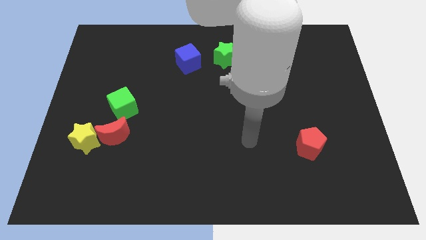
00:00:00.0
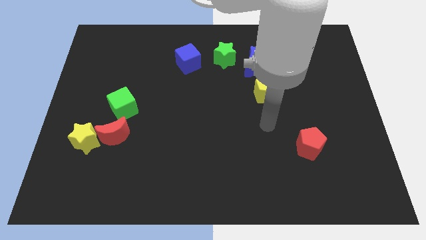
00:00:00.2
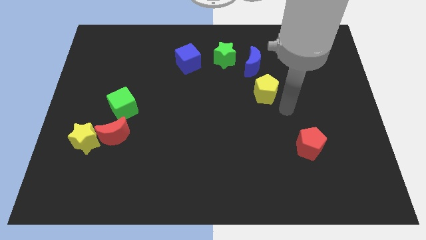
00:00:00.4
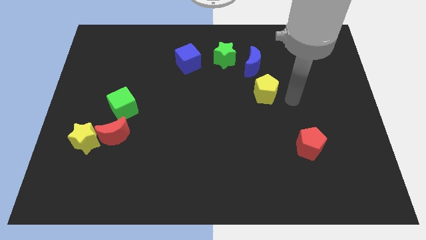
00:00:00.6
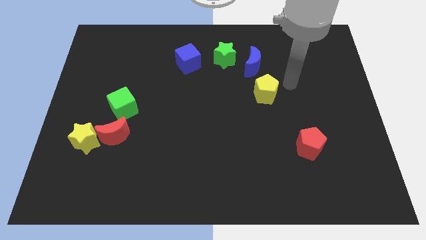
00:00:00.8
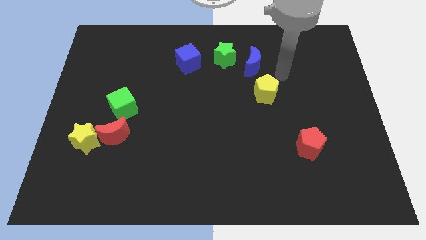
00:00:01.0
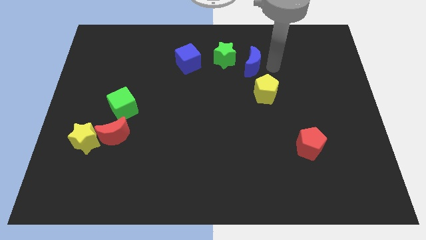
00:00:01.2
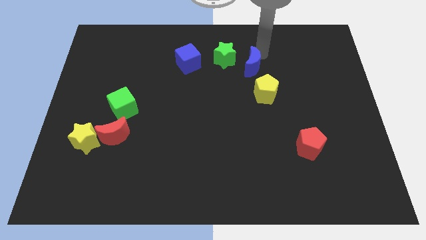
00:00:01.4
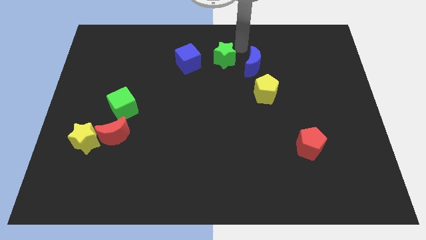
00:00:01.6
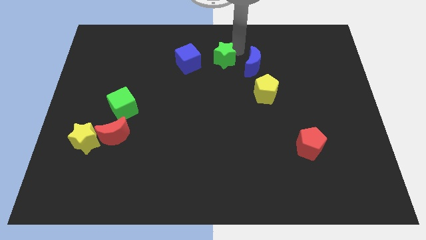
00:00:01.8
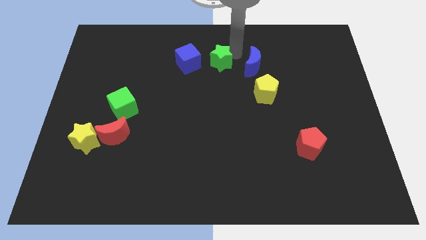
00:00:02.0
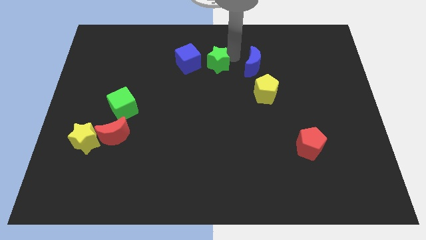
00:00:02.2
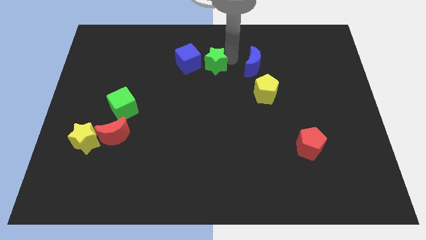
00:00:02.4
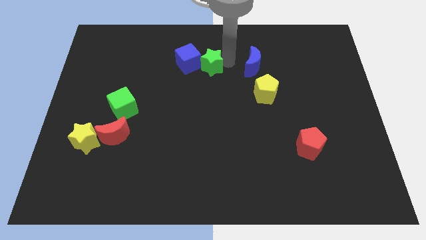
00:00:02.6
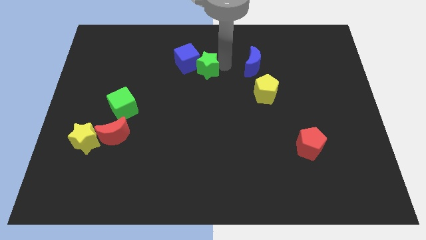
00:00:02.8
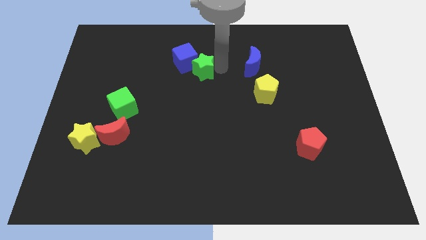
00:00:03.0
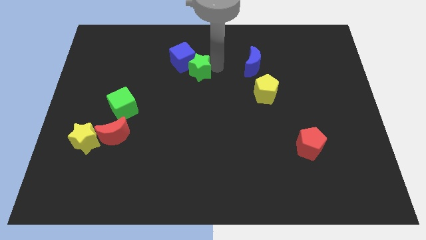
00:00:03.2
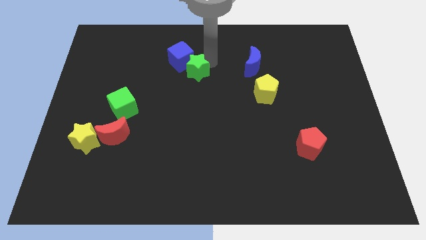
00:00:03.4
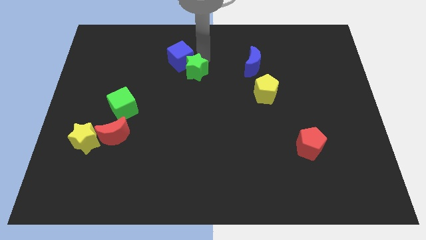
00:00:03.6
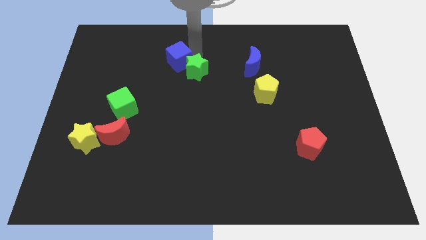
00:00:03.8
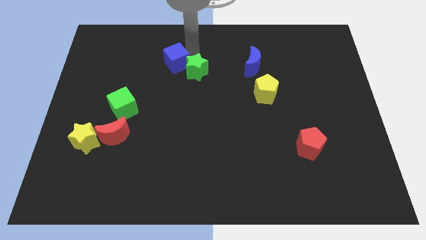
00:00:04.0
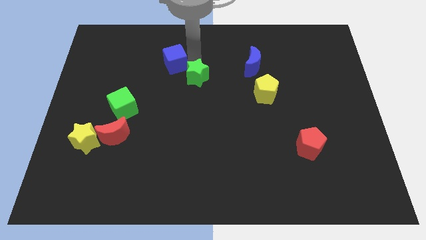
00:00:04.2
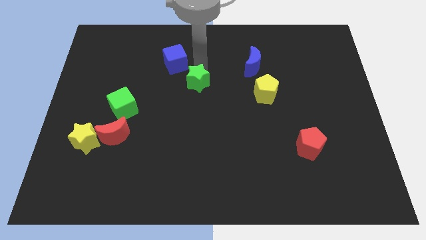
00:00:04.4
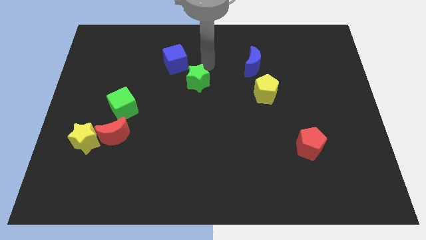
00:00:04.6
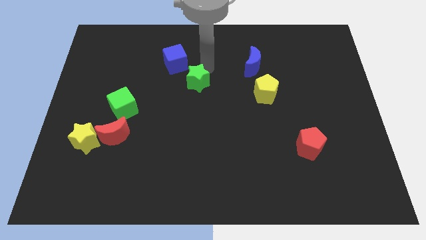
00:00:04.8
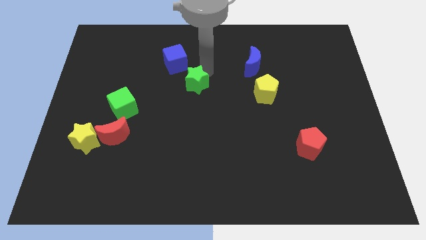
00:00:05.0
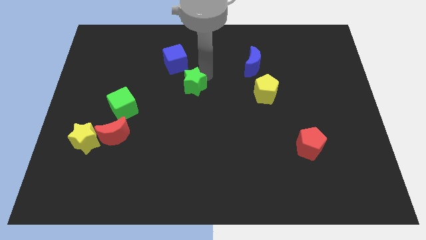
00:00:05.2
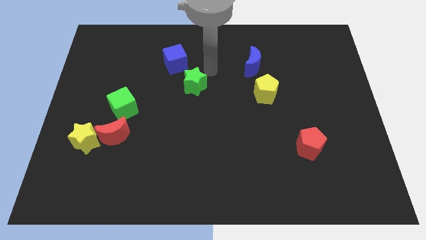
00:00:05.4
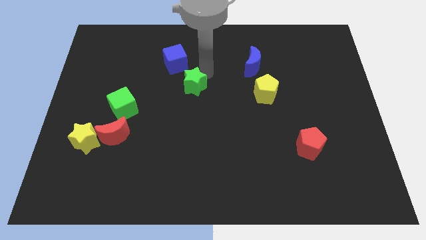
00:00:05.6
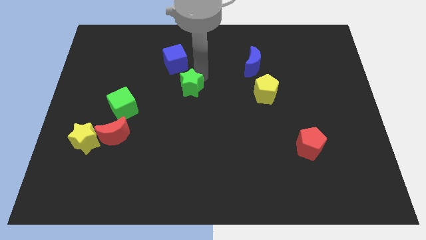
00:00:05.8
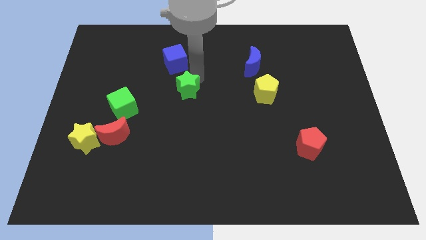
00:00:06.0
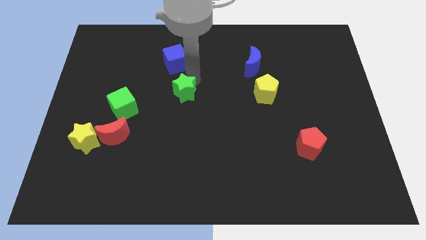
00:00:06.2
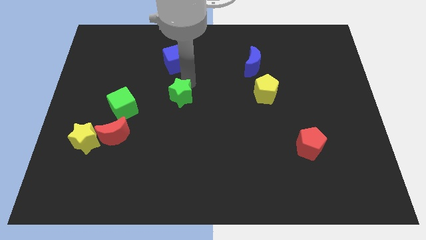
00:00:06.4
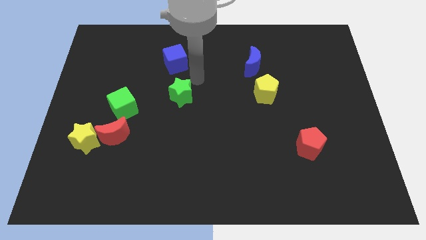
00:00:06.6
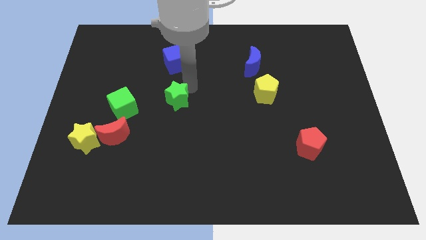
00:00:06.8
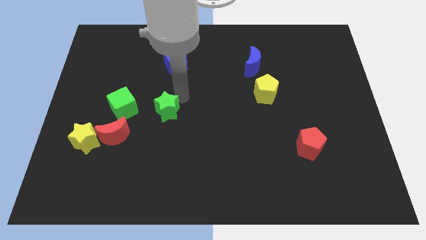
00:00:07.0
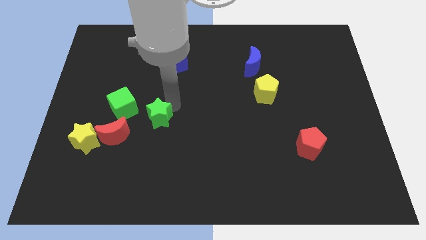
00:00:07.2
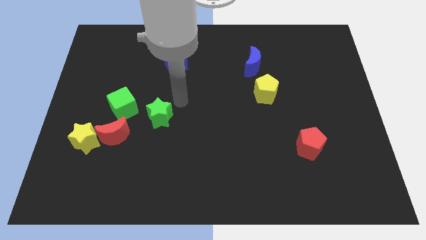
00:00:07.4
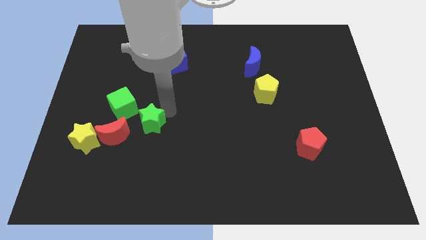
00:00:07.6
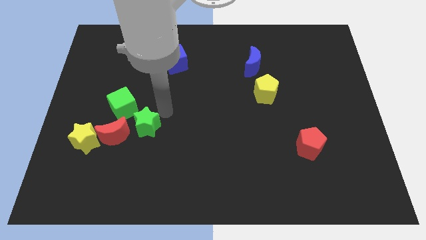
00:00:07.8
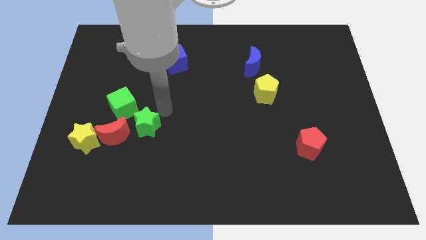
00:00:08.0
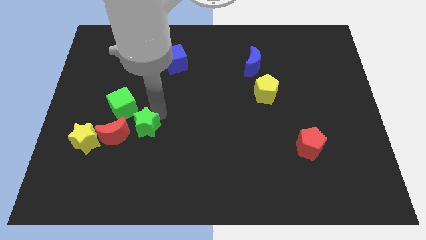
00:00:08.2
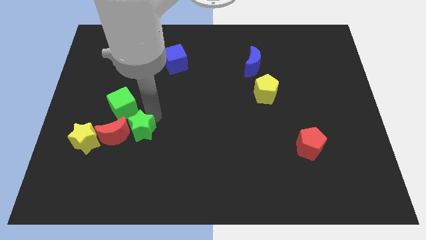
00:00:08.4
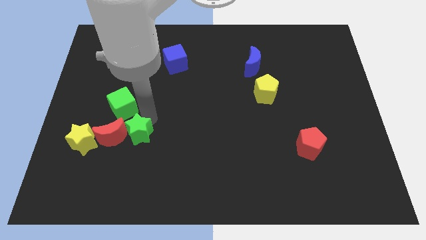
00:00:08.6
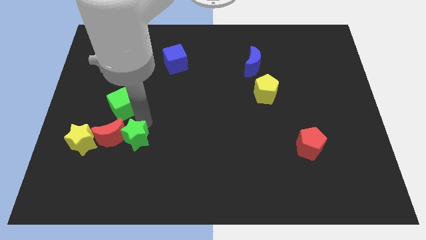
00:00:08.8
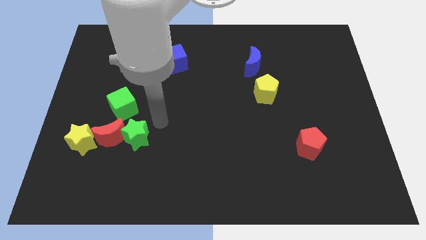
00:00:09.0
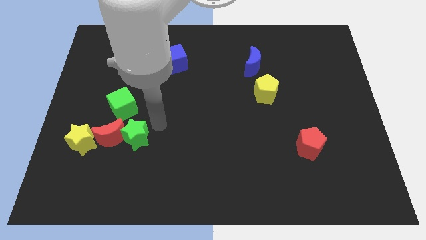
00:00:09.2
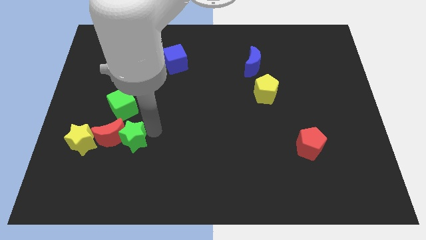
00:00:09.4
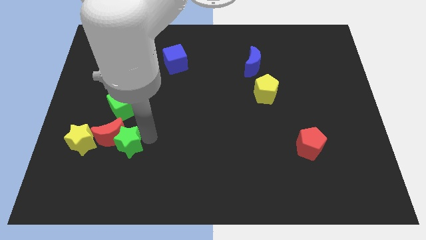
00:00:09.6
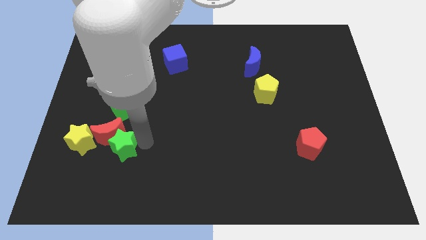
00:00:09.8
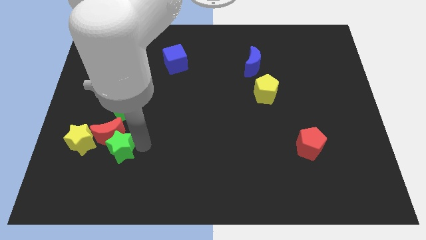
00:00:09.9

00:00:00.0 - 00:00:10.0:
put the green star to the bottom right side of the yellow star

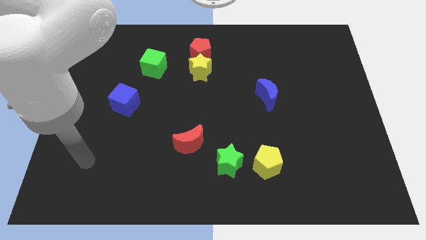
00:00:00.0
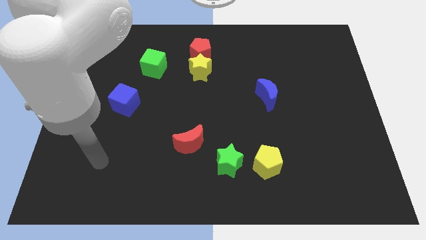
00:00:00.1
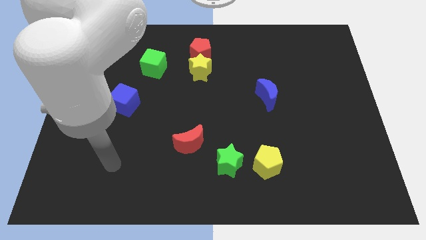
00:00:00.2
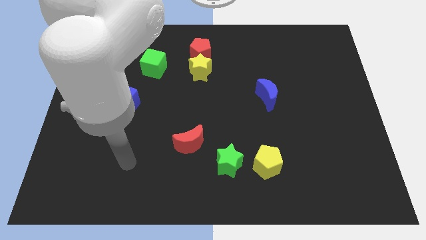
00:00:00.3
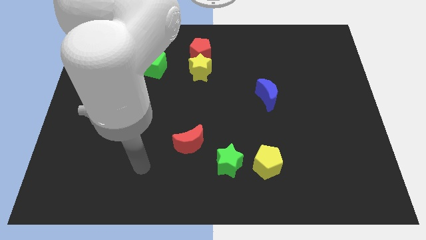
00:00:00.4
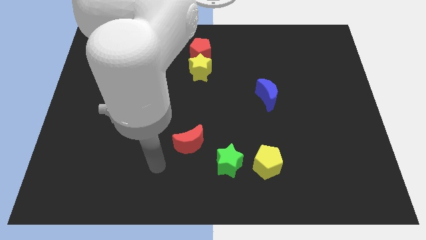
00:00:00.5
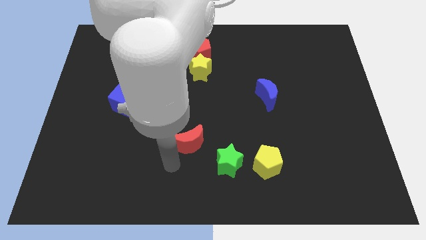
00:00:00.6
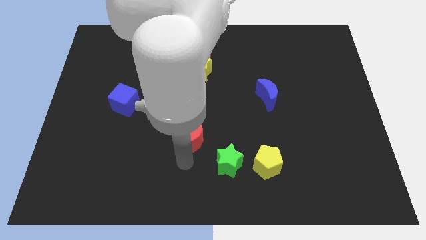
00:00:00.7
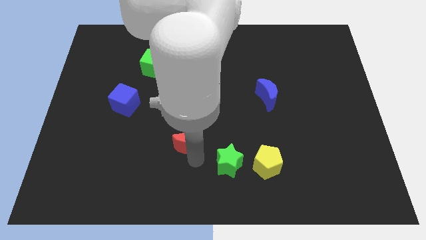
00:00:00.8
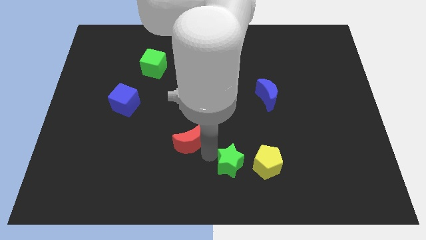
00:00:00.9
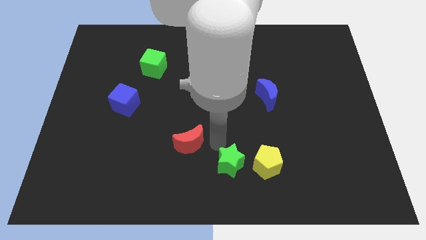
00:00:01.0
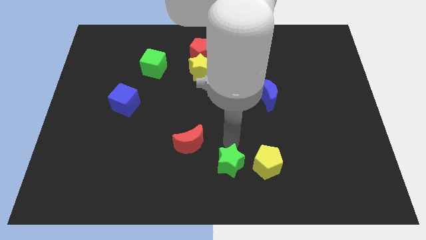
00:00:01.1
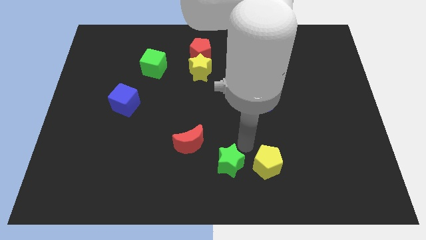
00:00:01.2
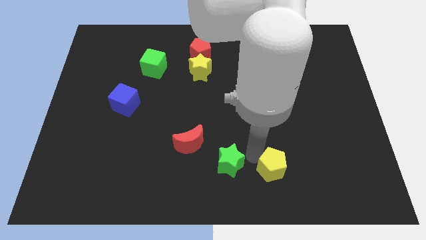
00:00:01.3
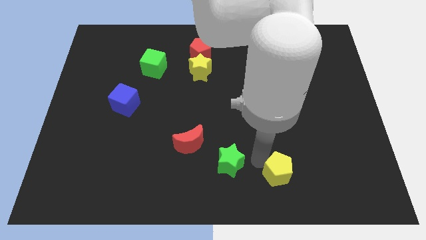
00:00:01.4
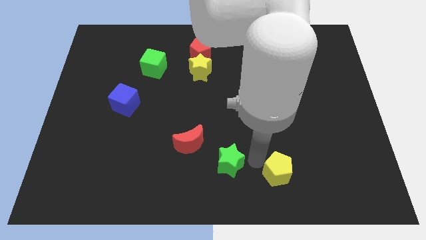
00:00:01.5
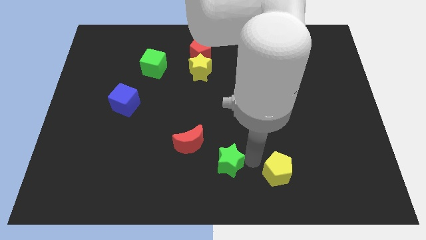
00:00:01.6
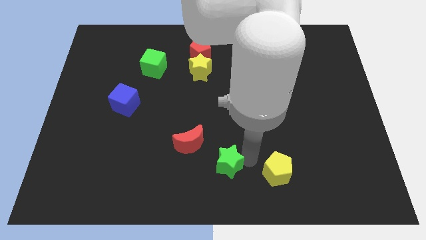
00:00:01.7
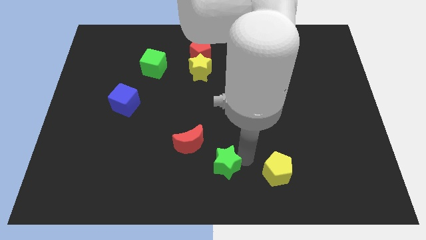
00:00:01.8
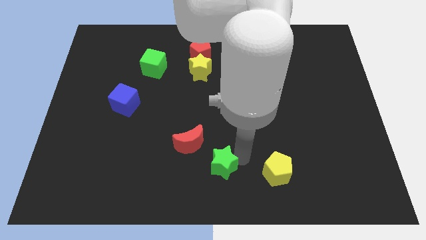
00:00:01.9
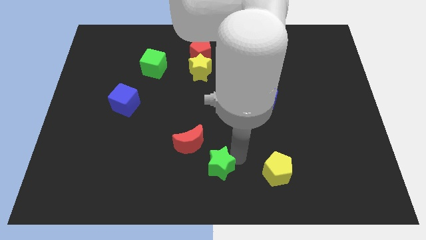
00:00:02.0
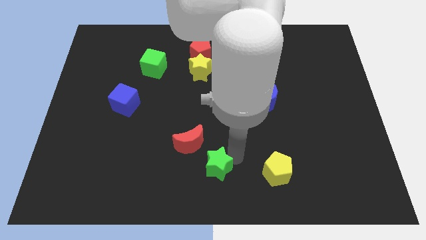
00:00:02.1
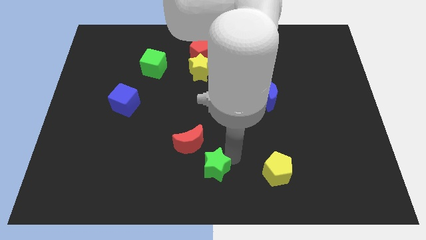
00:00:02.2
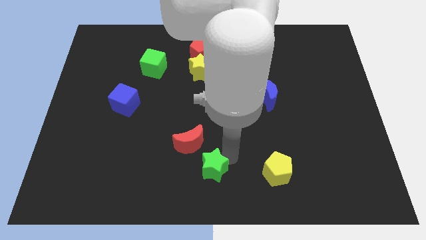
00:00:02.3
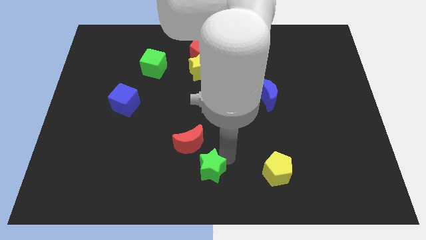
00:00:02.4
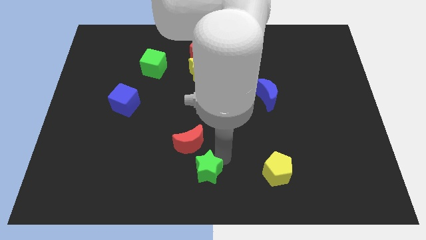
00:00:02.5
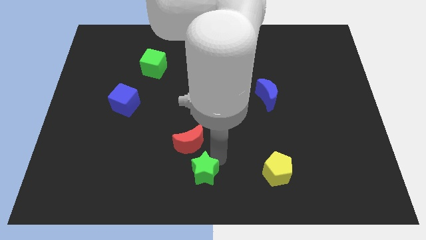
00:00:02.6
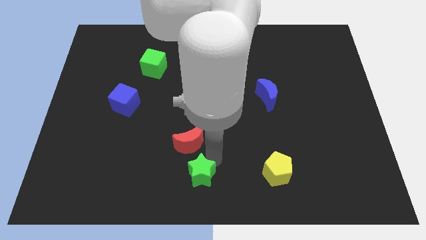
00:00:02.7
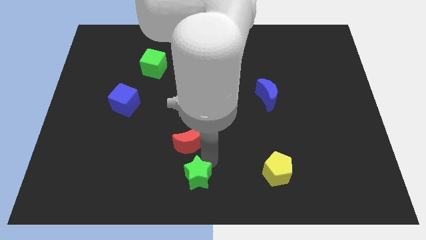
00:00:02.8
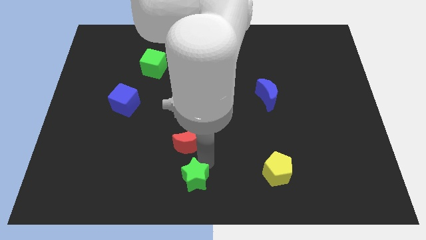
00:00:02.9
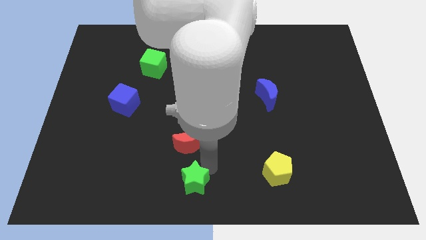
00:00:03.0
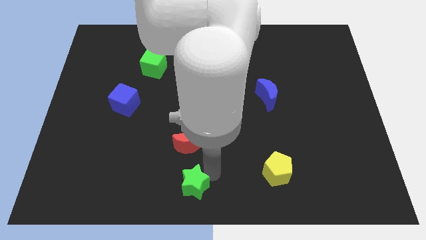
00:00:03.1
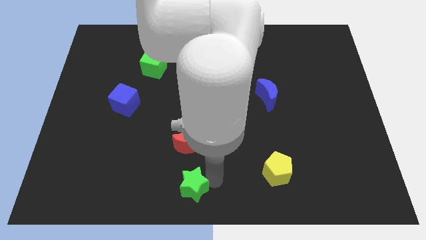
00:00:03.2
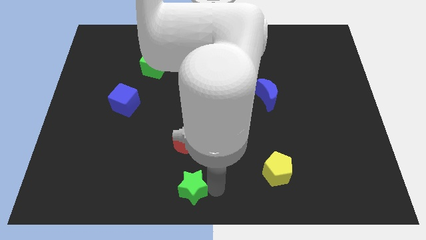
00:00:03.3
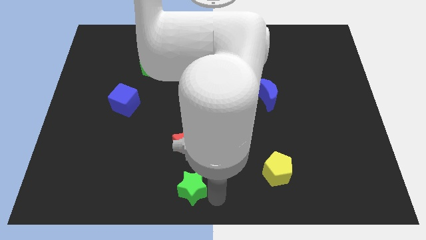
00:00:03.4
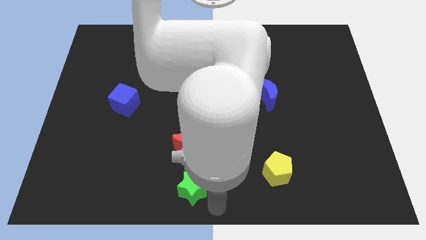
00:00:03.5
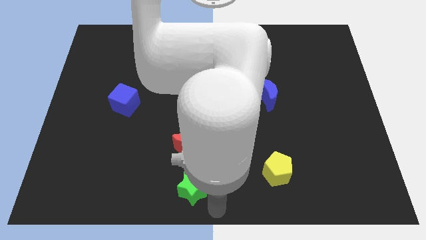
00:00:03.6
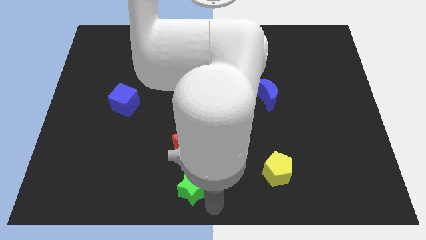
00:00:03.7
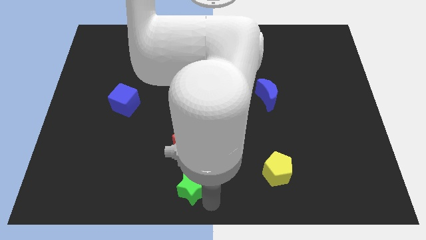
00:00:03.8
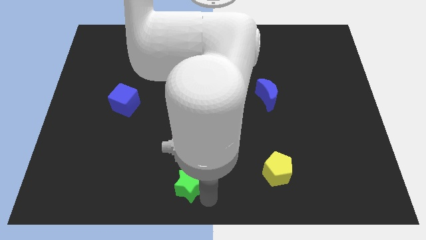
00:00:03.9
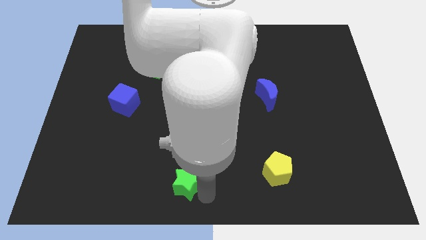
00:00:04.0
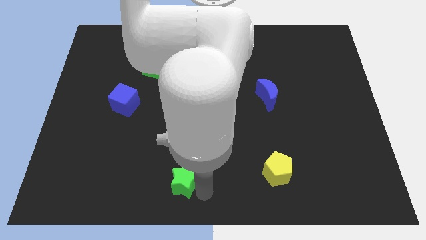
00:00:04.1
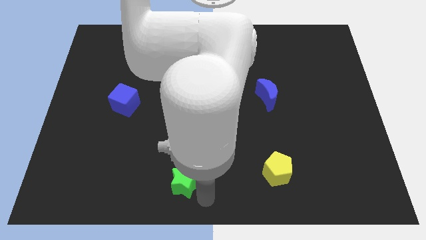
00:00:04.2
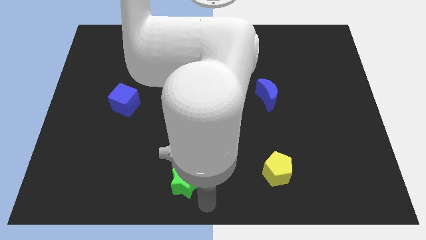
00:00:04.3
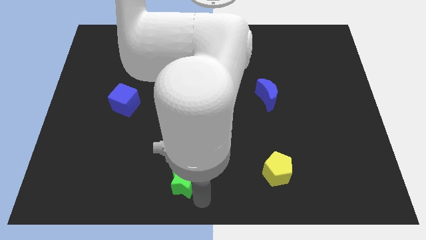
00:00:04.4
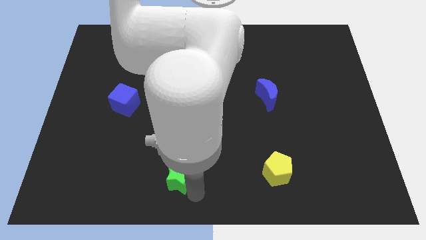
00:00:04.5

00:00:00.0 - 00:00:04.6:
slide the green star to the bottom left side of the red moon
